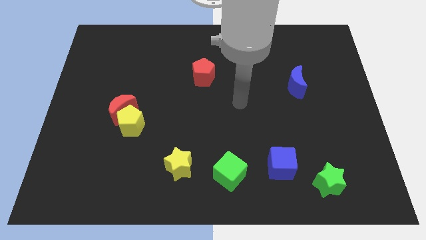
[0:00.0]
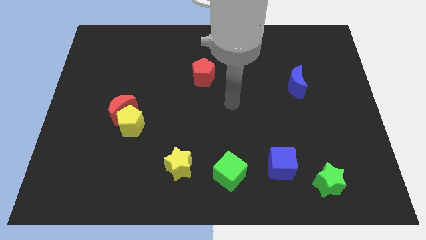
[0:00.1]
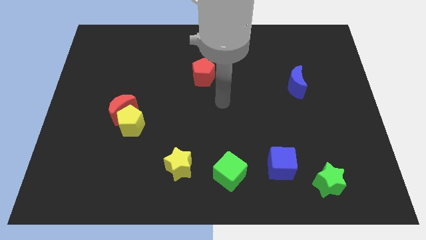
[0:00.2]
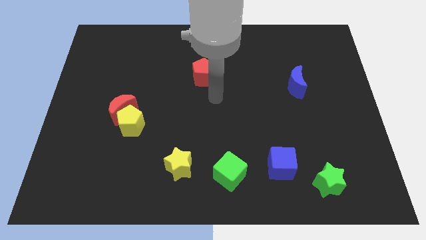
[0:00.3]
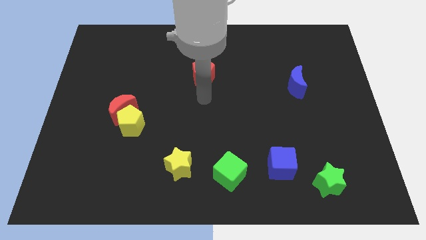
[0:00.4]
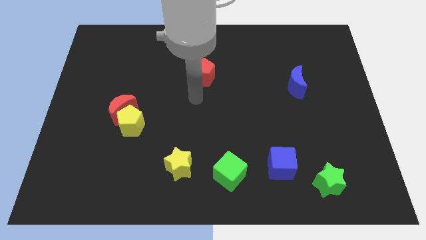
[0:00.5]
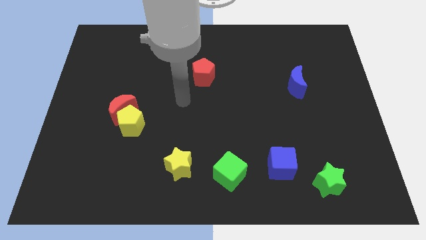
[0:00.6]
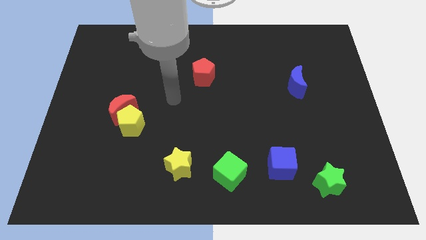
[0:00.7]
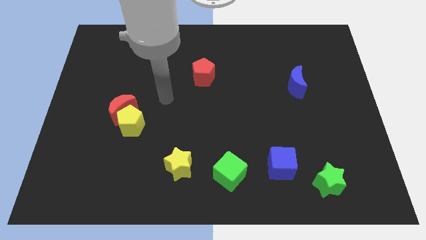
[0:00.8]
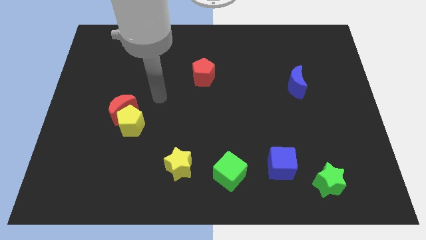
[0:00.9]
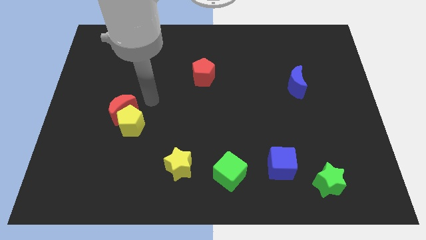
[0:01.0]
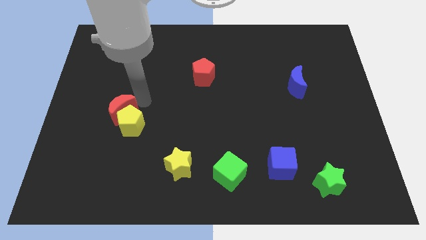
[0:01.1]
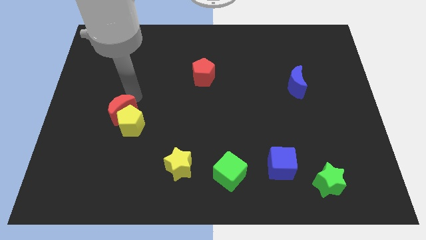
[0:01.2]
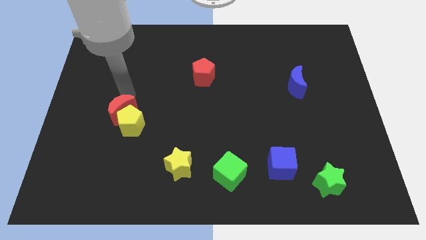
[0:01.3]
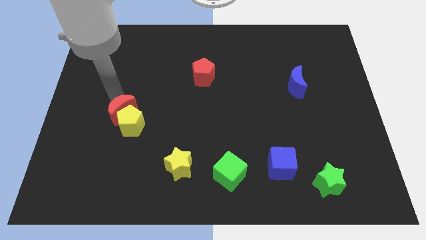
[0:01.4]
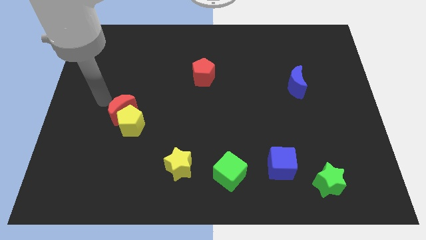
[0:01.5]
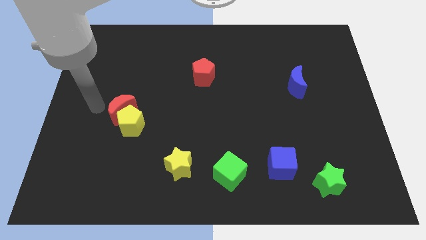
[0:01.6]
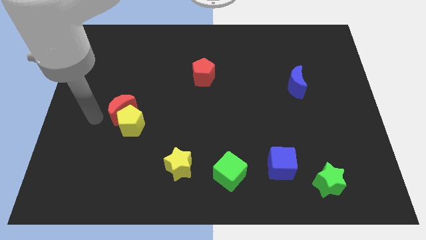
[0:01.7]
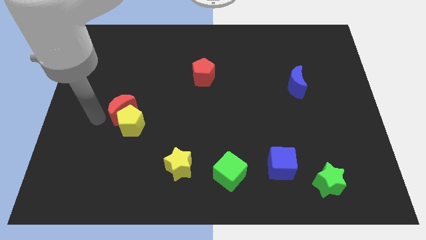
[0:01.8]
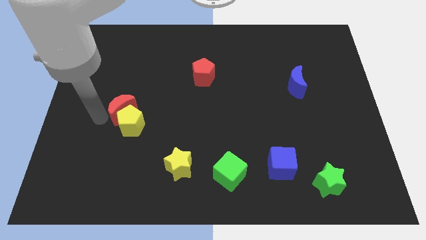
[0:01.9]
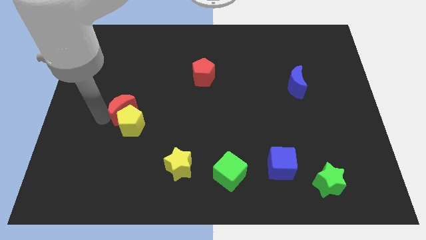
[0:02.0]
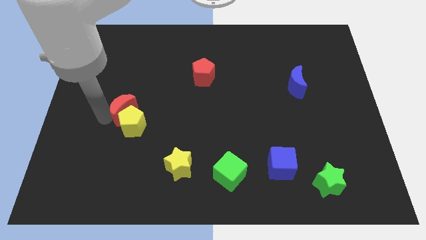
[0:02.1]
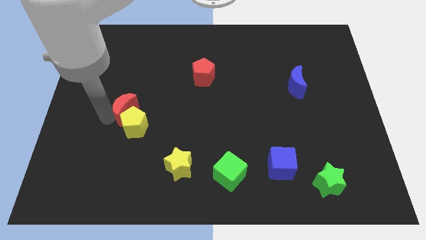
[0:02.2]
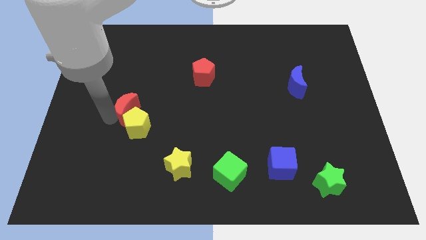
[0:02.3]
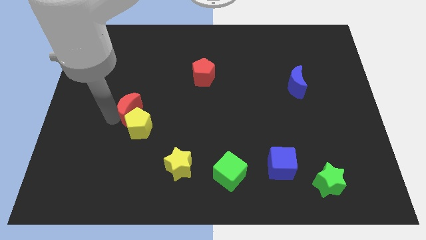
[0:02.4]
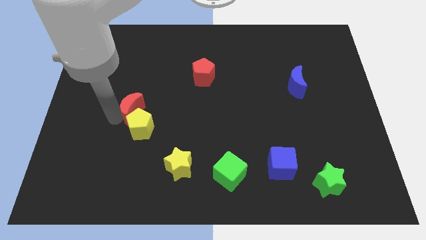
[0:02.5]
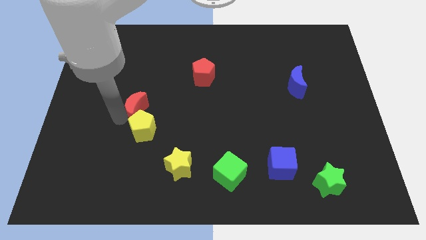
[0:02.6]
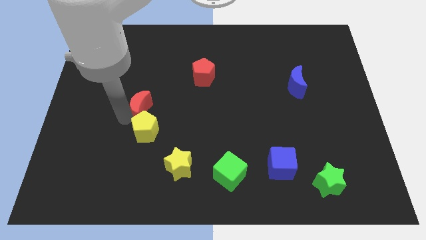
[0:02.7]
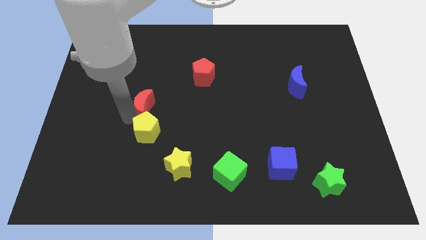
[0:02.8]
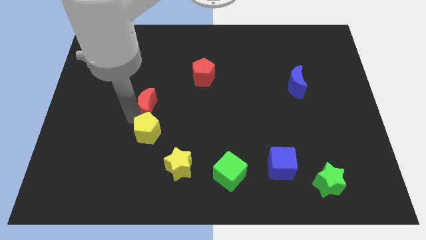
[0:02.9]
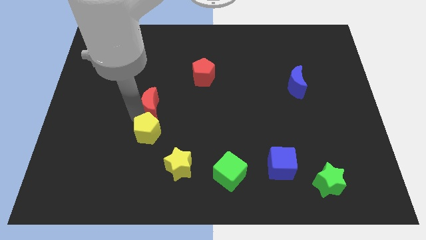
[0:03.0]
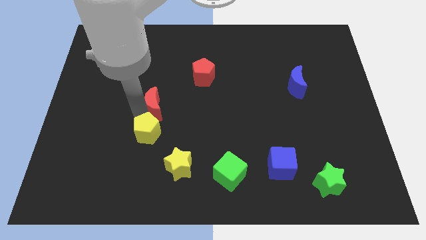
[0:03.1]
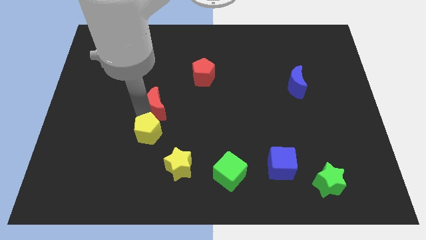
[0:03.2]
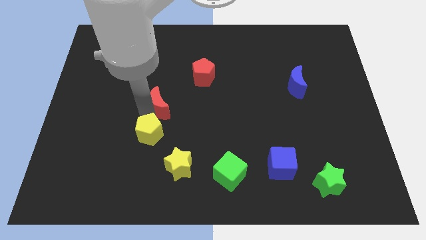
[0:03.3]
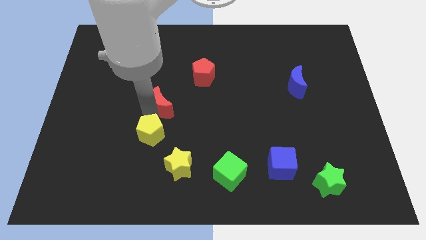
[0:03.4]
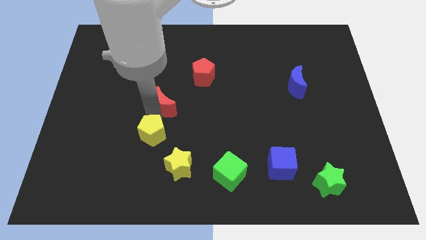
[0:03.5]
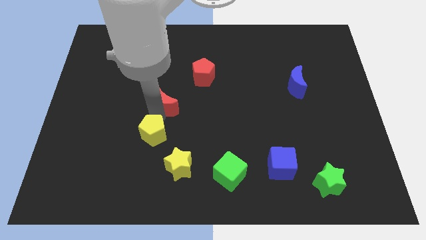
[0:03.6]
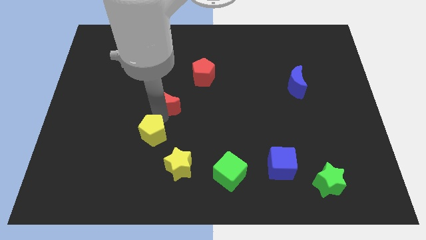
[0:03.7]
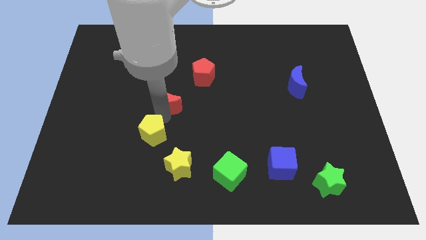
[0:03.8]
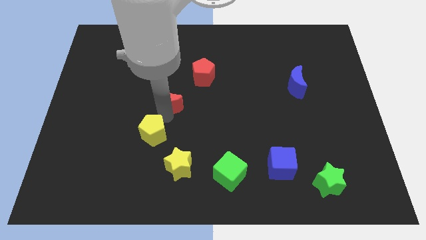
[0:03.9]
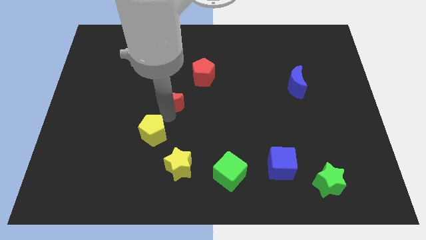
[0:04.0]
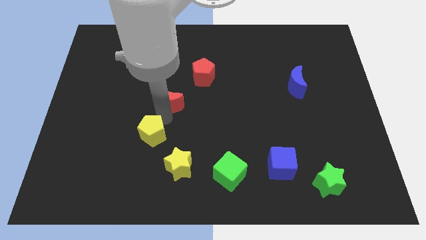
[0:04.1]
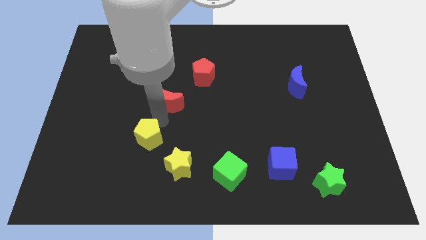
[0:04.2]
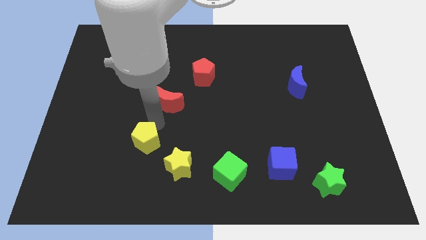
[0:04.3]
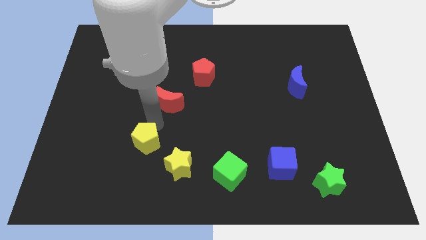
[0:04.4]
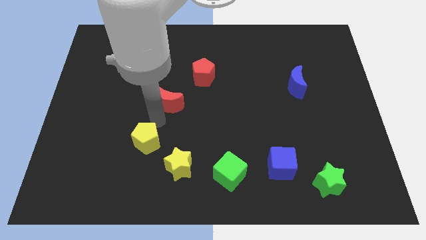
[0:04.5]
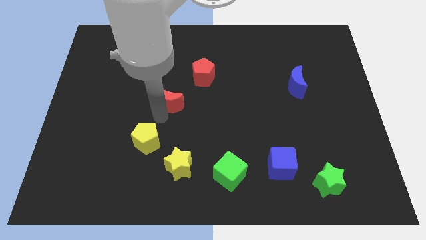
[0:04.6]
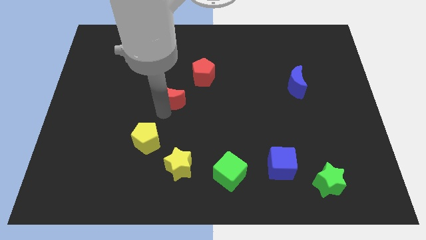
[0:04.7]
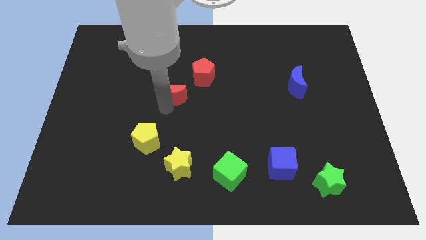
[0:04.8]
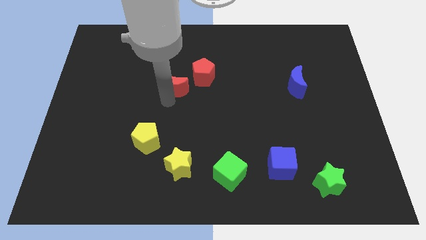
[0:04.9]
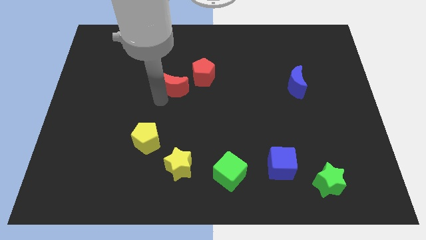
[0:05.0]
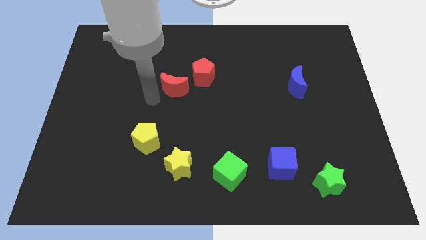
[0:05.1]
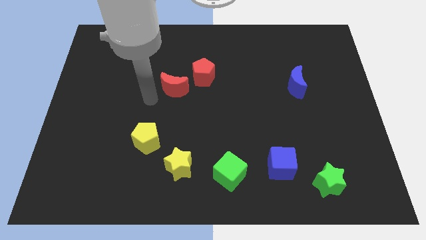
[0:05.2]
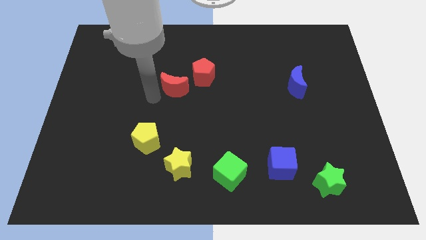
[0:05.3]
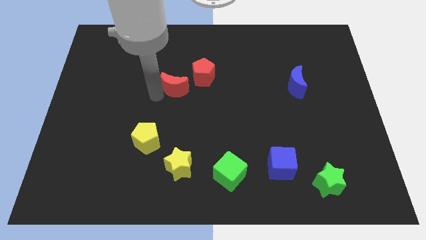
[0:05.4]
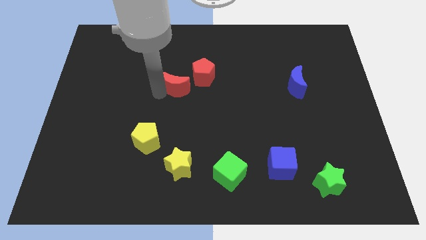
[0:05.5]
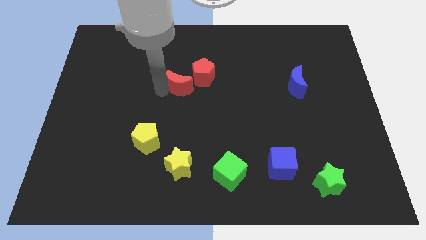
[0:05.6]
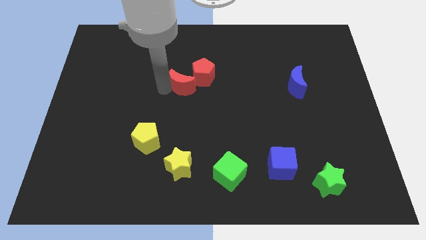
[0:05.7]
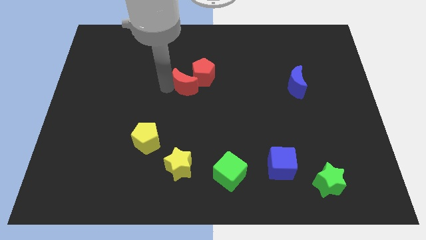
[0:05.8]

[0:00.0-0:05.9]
push the red moon towards the red pentagon
